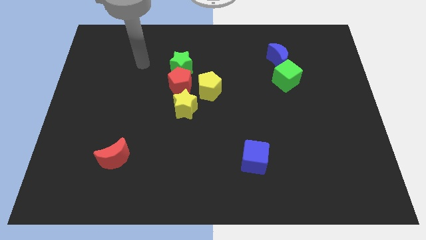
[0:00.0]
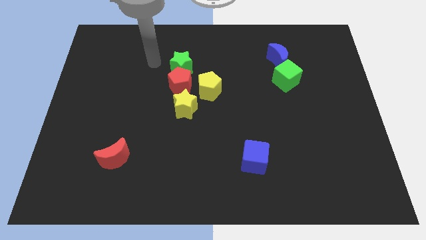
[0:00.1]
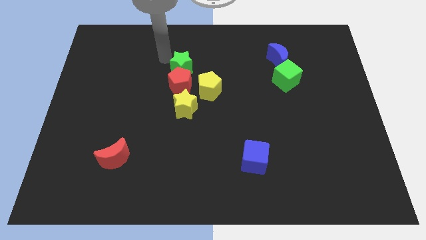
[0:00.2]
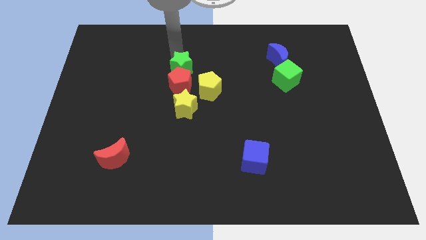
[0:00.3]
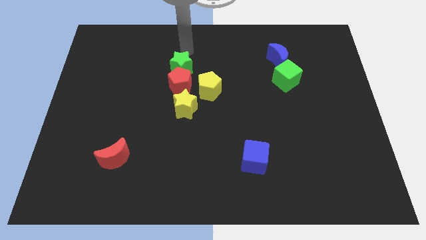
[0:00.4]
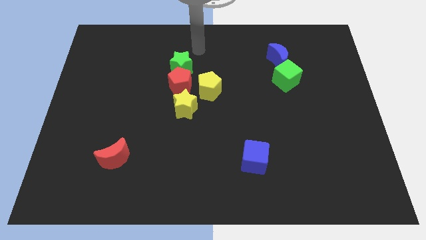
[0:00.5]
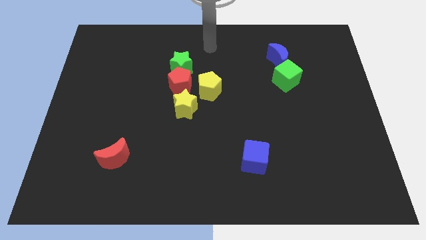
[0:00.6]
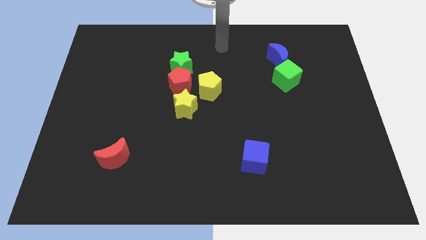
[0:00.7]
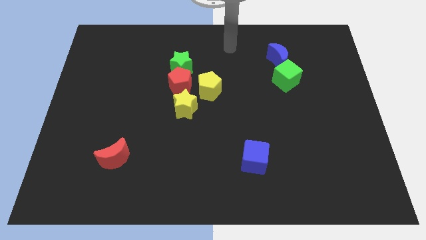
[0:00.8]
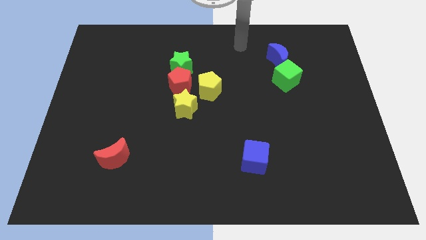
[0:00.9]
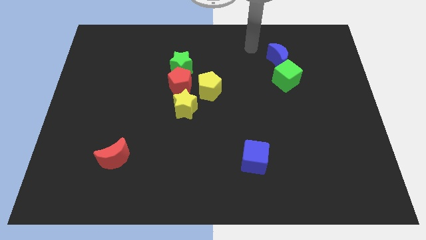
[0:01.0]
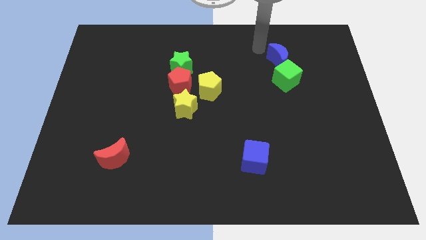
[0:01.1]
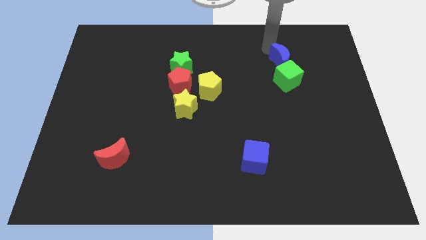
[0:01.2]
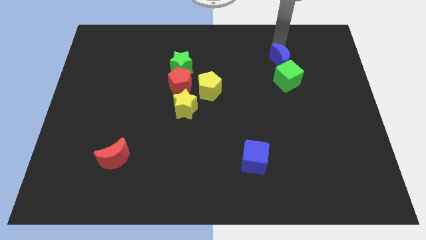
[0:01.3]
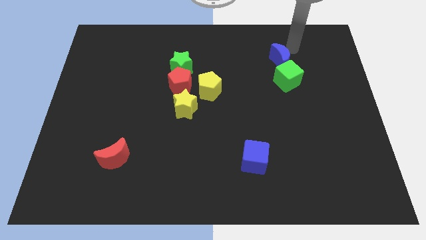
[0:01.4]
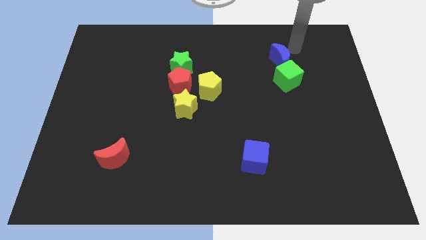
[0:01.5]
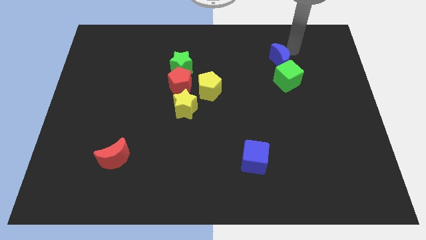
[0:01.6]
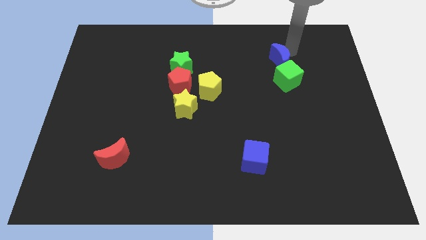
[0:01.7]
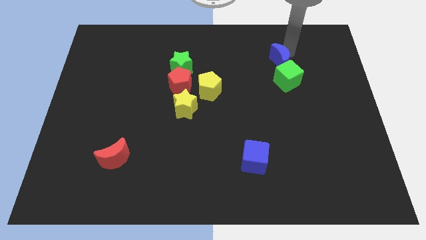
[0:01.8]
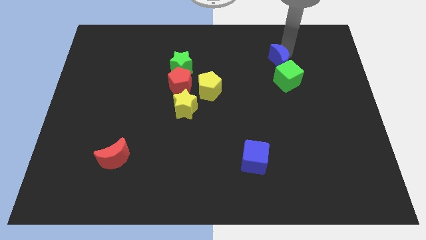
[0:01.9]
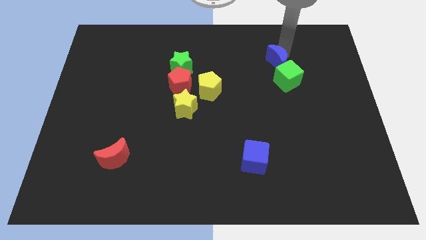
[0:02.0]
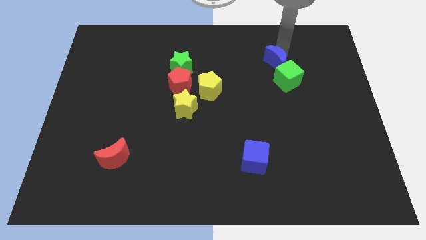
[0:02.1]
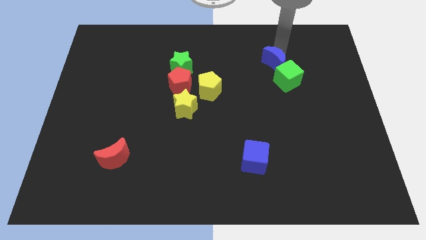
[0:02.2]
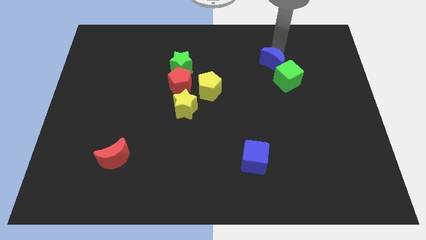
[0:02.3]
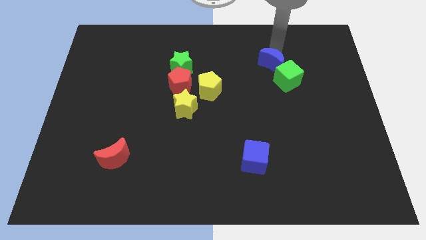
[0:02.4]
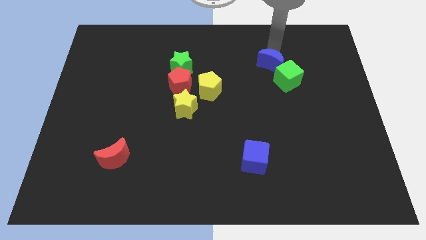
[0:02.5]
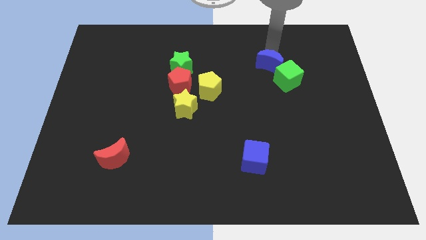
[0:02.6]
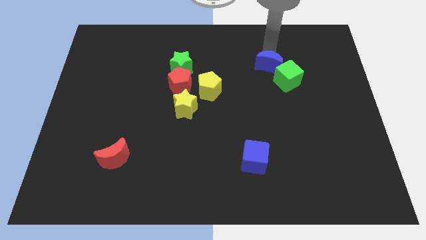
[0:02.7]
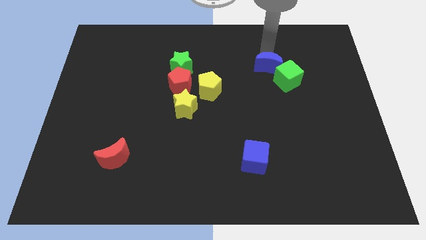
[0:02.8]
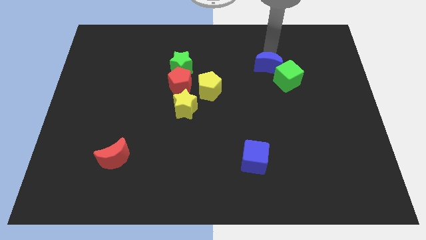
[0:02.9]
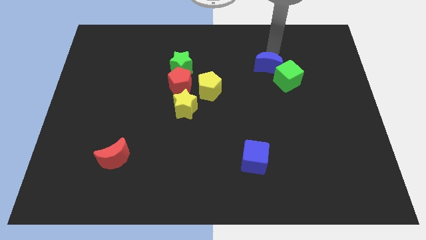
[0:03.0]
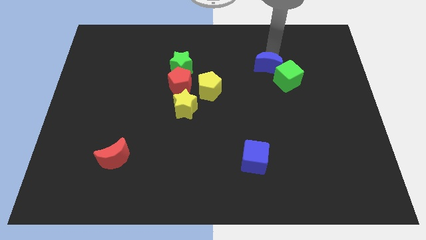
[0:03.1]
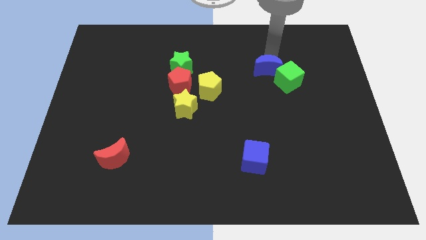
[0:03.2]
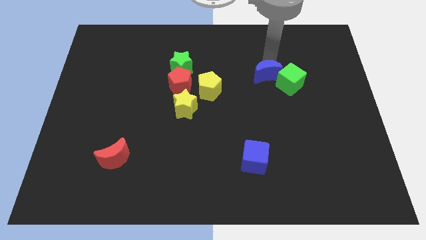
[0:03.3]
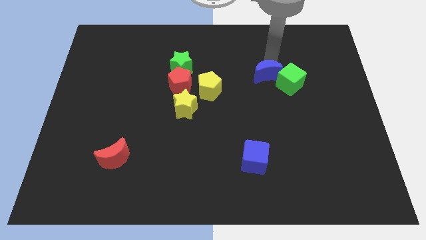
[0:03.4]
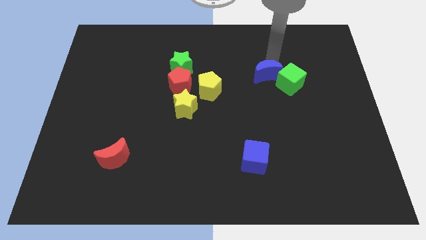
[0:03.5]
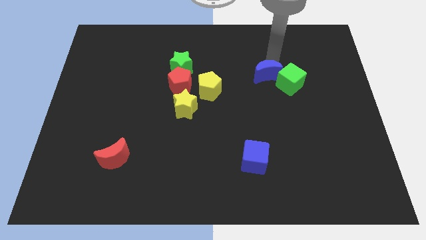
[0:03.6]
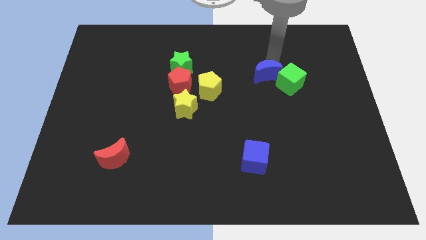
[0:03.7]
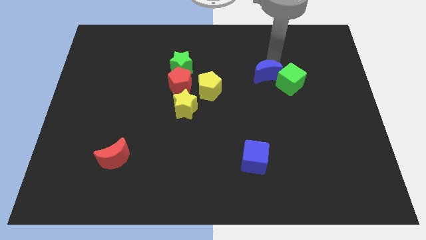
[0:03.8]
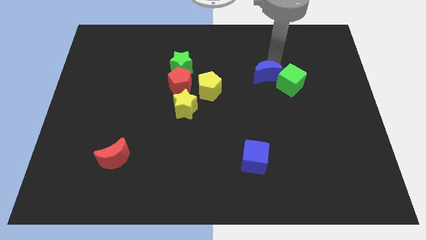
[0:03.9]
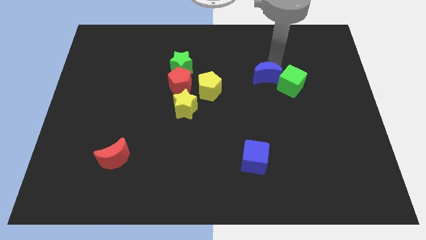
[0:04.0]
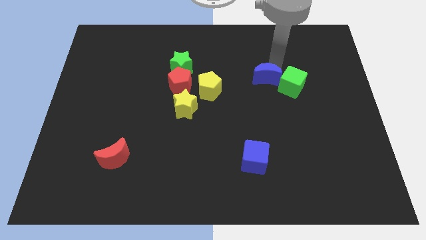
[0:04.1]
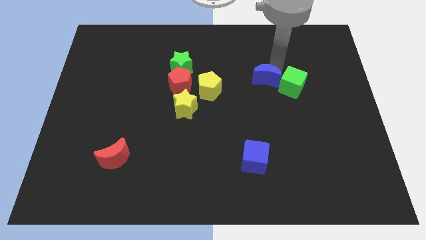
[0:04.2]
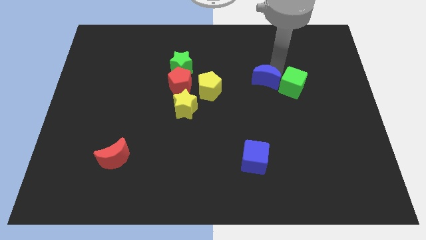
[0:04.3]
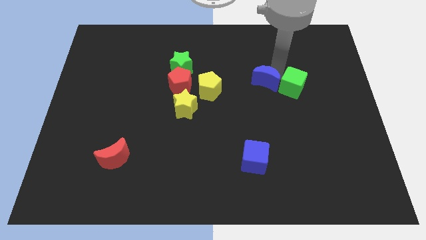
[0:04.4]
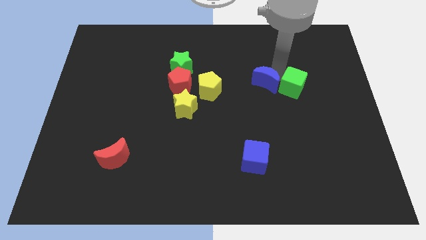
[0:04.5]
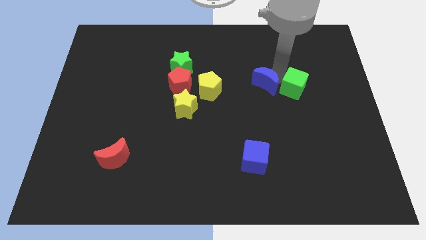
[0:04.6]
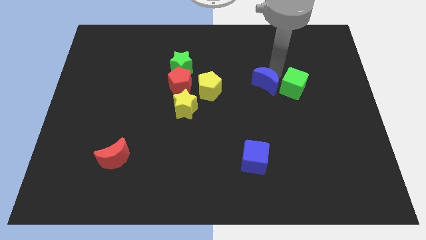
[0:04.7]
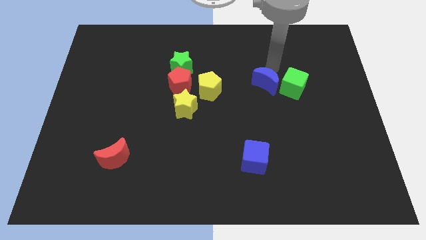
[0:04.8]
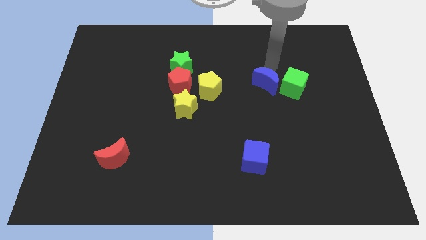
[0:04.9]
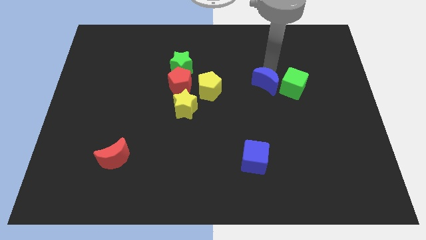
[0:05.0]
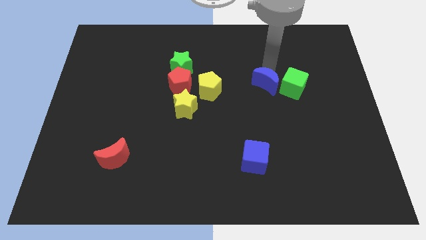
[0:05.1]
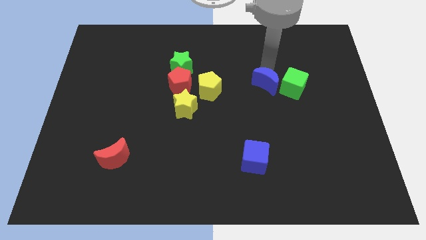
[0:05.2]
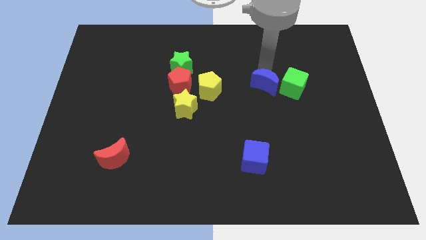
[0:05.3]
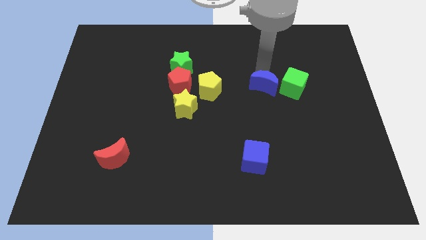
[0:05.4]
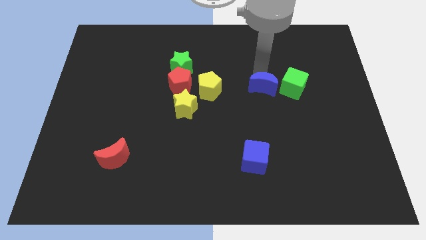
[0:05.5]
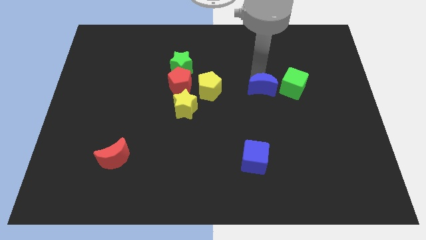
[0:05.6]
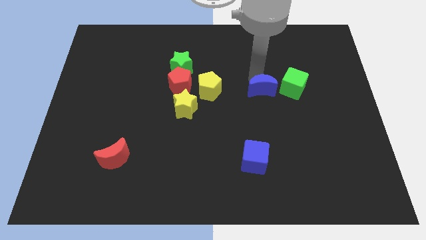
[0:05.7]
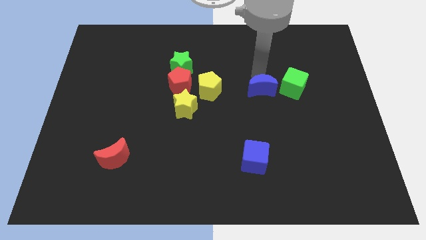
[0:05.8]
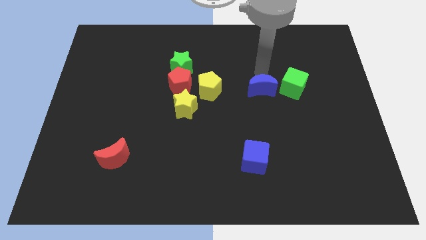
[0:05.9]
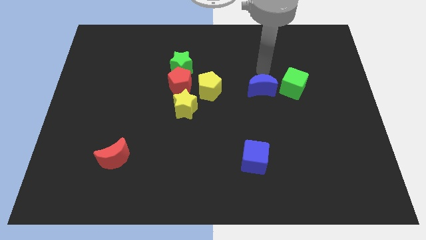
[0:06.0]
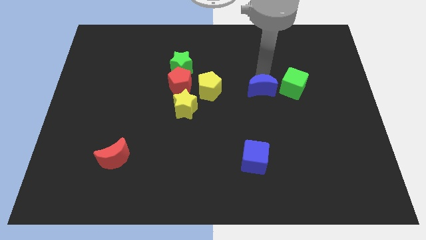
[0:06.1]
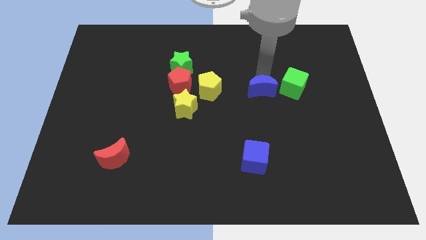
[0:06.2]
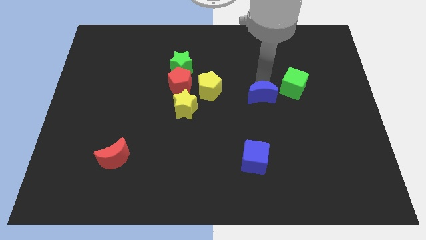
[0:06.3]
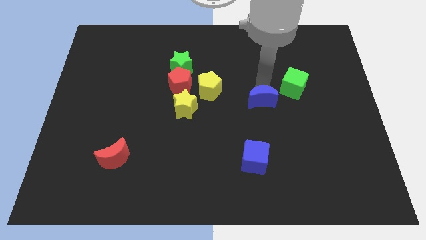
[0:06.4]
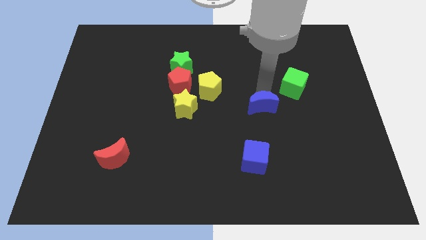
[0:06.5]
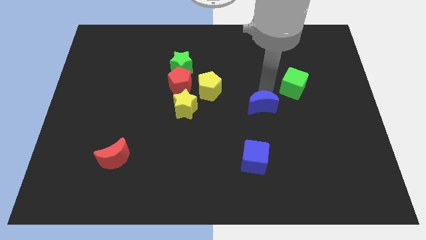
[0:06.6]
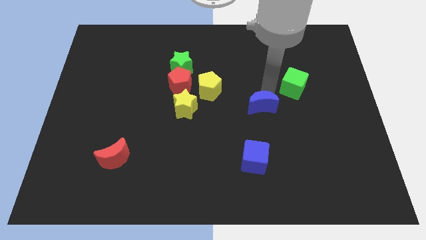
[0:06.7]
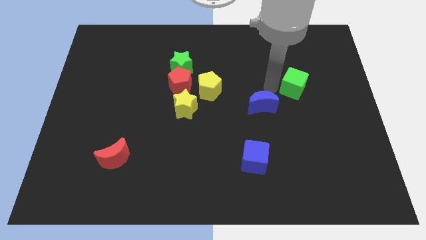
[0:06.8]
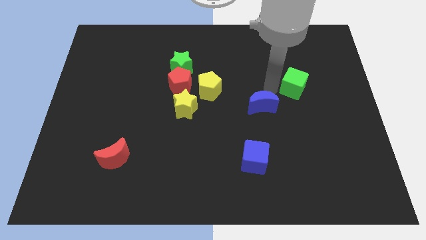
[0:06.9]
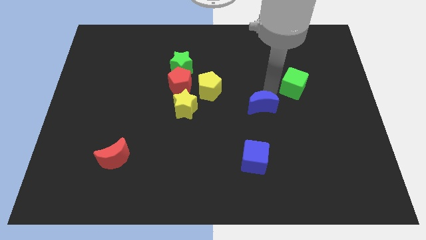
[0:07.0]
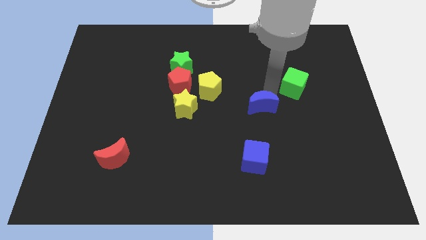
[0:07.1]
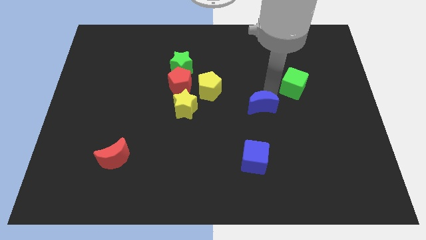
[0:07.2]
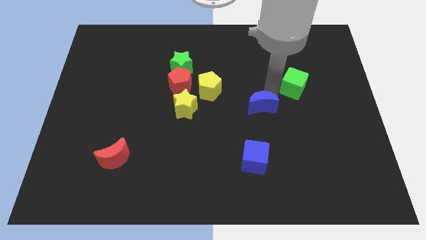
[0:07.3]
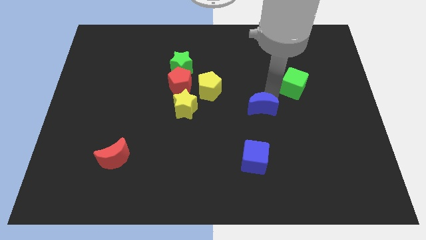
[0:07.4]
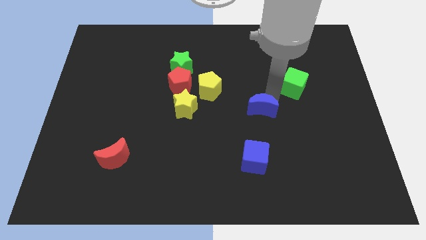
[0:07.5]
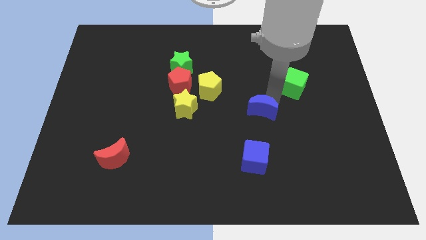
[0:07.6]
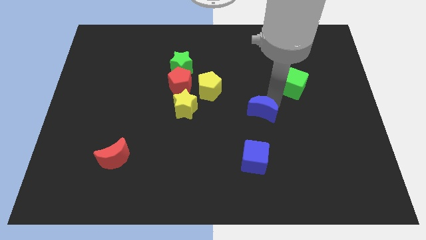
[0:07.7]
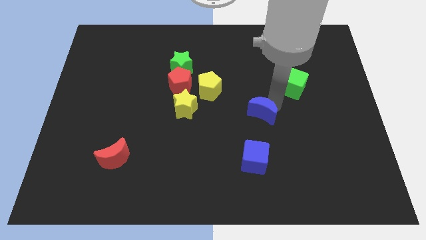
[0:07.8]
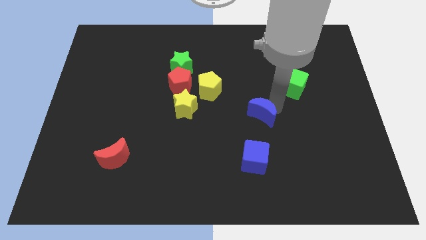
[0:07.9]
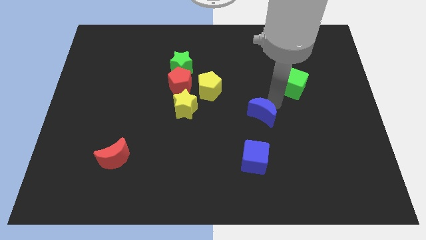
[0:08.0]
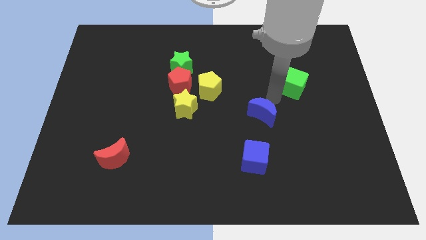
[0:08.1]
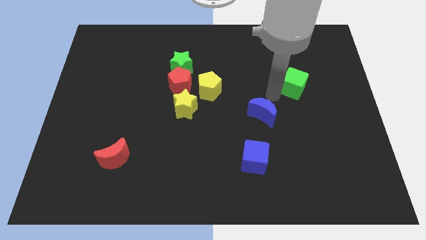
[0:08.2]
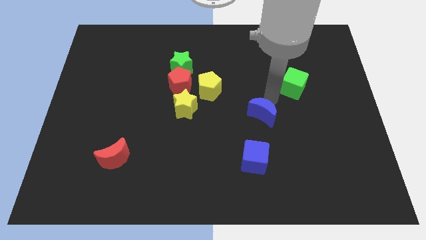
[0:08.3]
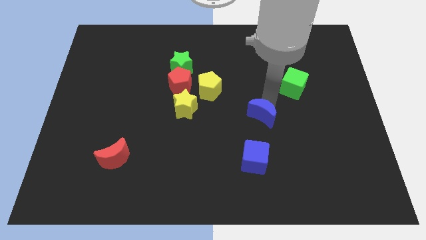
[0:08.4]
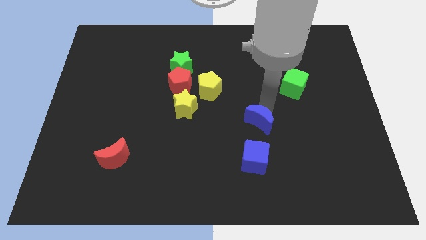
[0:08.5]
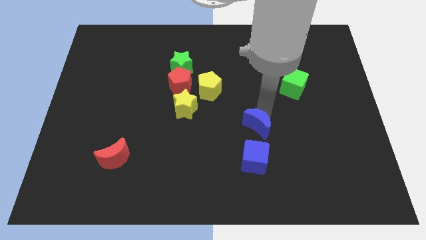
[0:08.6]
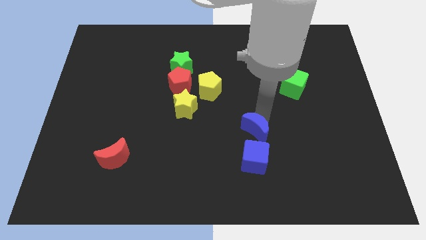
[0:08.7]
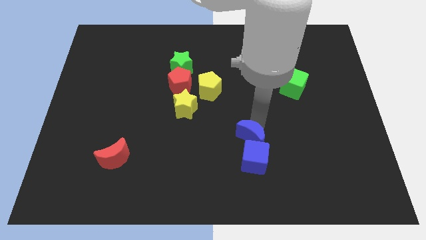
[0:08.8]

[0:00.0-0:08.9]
put the blue moon towards the blue cube
